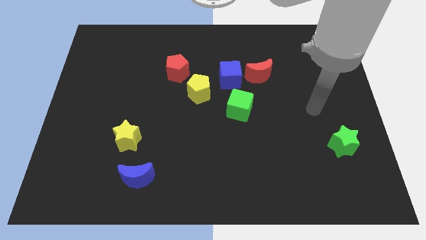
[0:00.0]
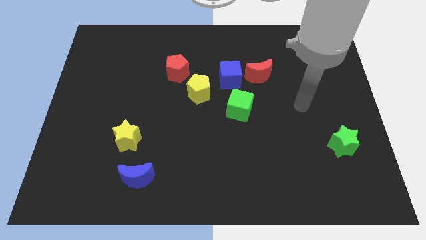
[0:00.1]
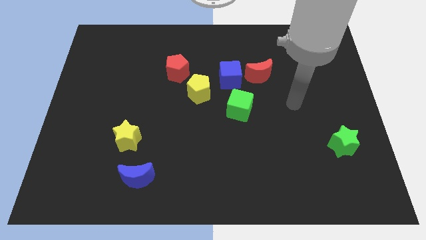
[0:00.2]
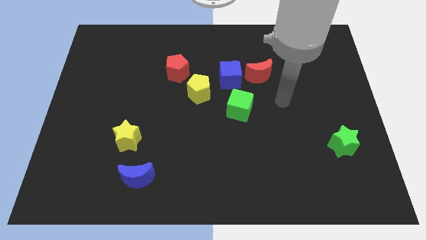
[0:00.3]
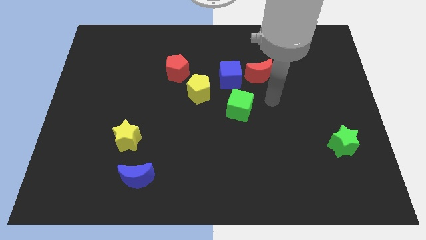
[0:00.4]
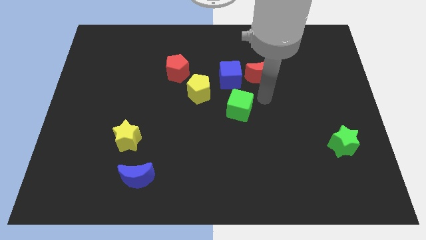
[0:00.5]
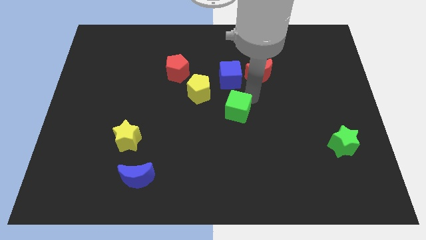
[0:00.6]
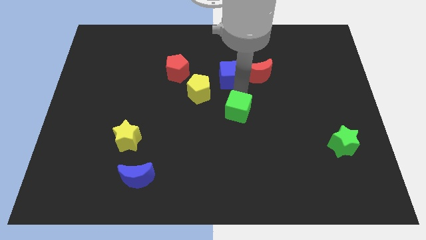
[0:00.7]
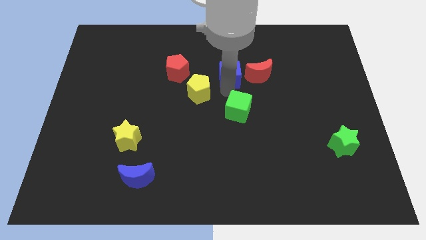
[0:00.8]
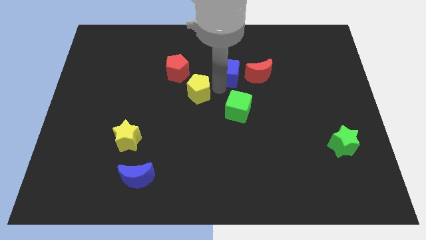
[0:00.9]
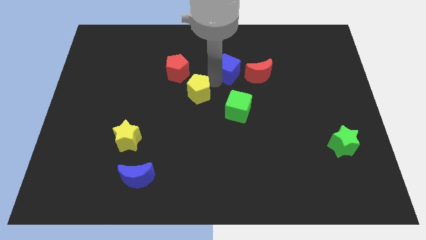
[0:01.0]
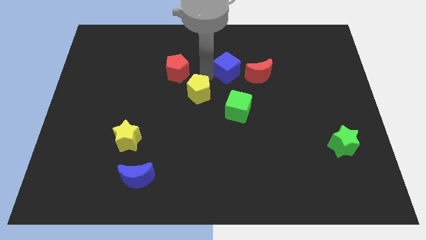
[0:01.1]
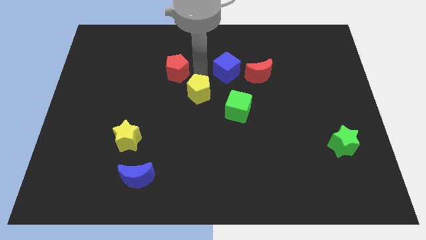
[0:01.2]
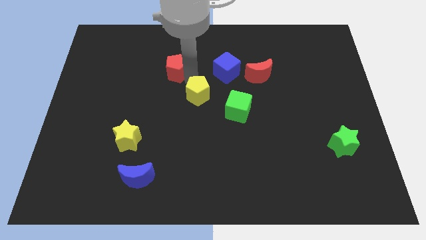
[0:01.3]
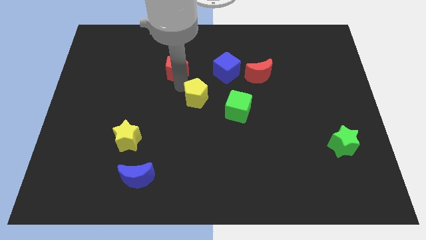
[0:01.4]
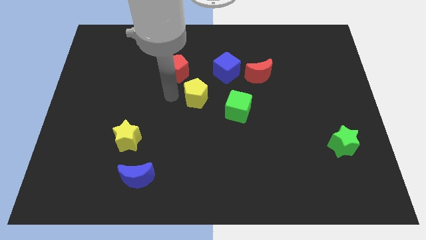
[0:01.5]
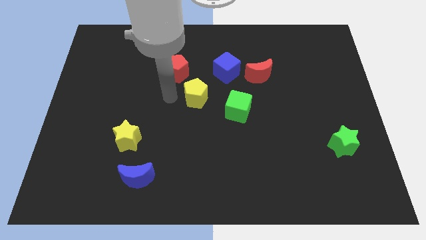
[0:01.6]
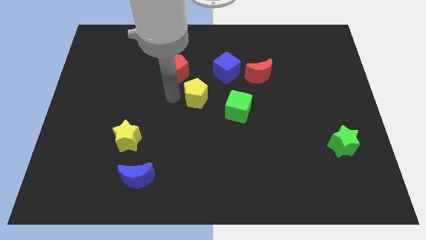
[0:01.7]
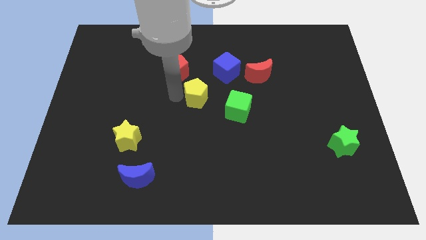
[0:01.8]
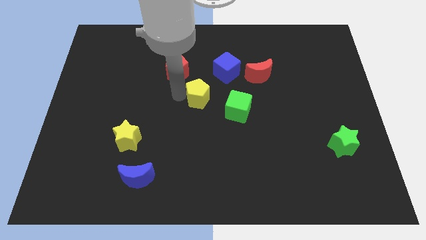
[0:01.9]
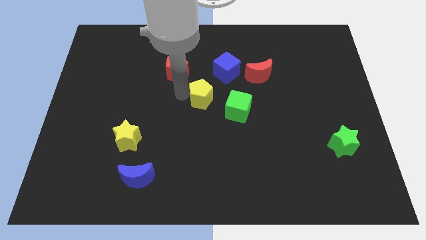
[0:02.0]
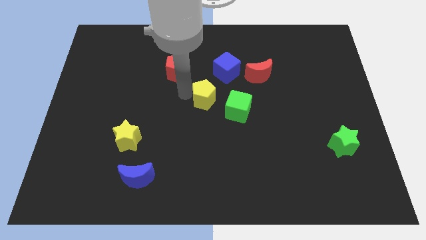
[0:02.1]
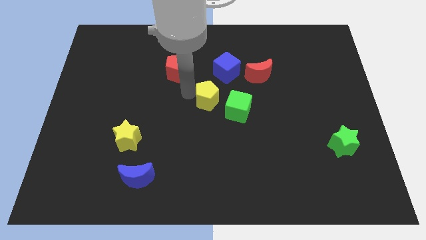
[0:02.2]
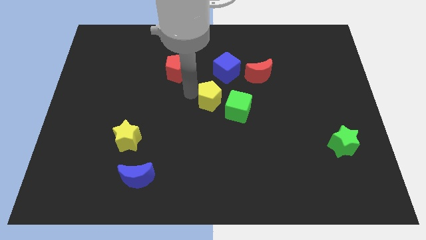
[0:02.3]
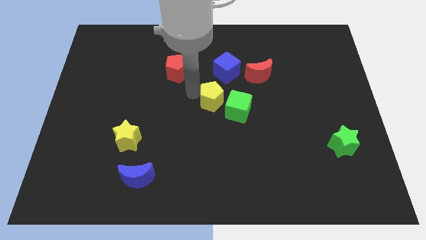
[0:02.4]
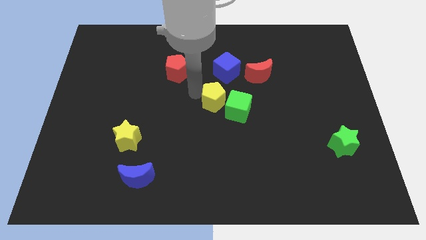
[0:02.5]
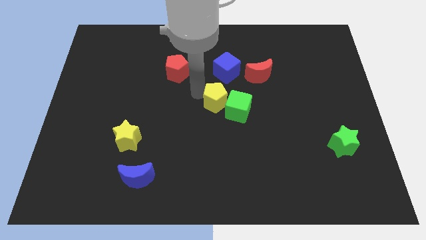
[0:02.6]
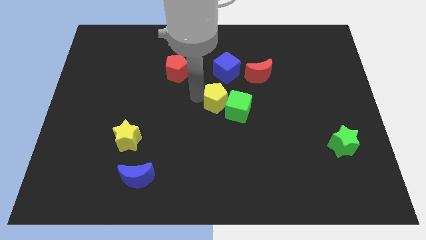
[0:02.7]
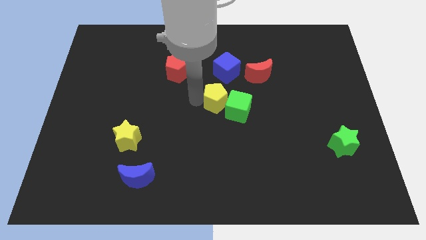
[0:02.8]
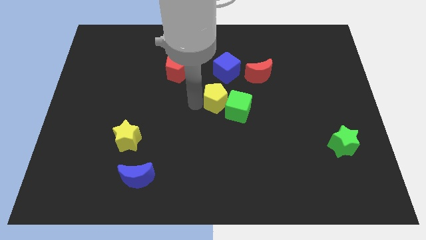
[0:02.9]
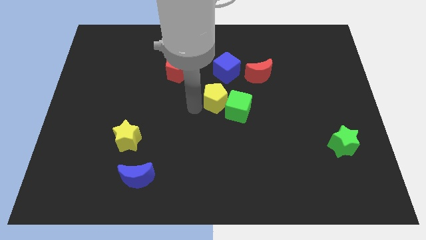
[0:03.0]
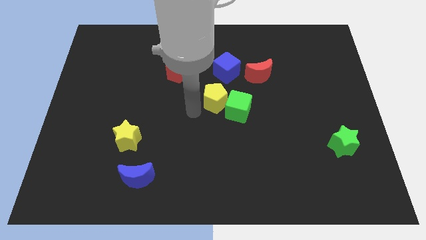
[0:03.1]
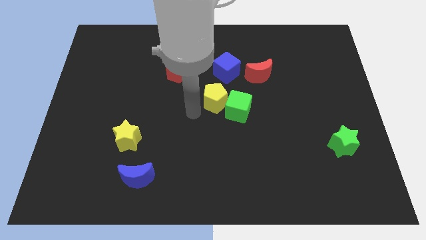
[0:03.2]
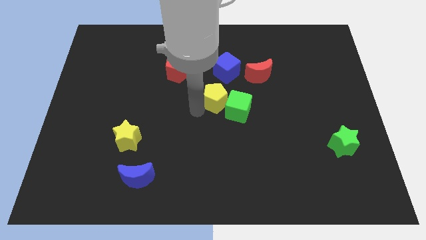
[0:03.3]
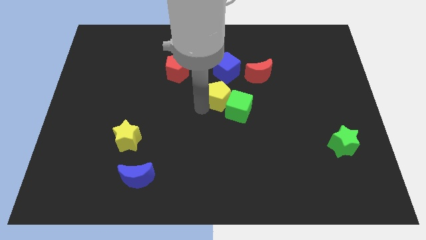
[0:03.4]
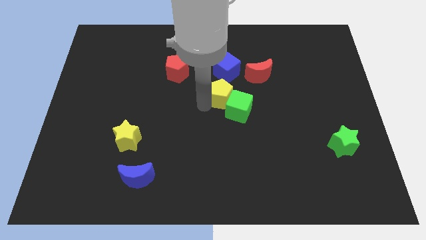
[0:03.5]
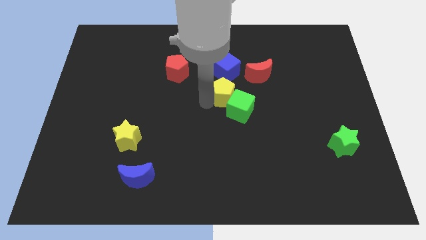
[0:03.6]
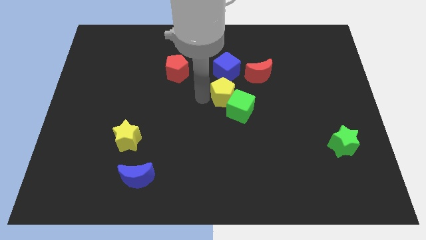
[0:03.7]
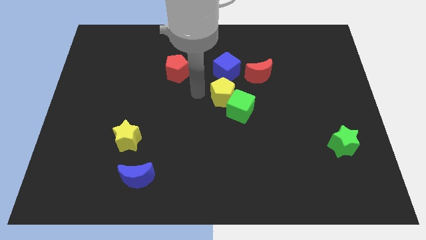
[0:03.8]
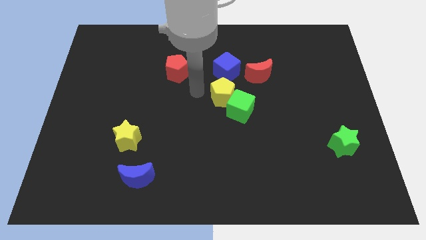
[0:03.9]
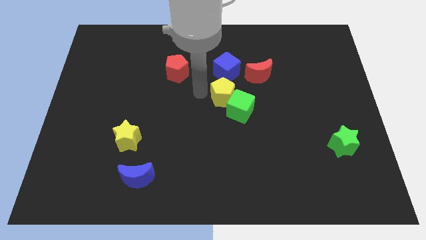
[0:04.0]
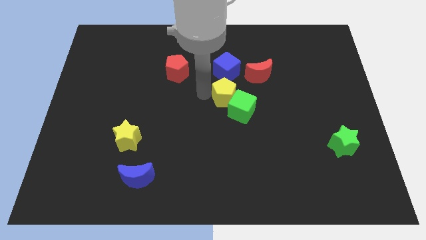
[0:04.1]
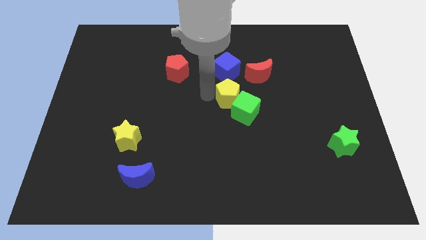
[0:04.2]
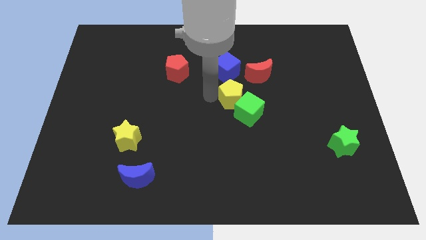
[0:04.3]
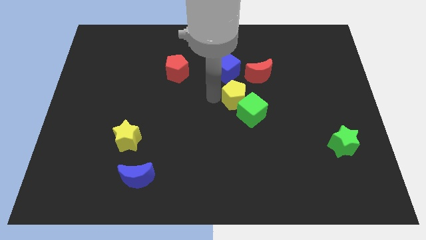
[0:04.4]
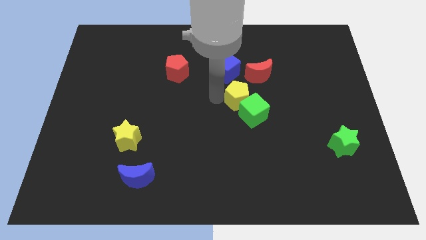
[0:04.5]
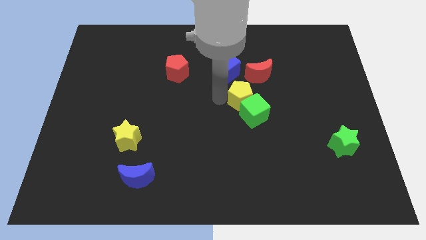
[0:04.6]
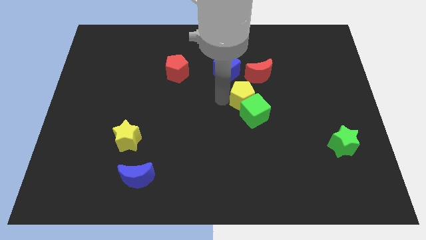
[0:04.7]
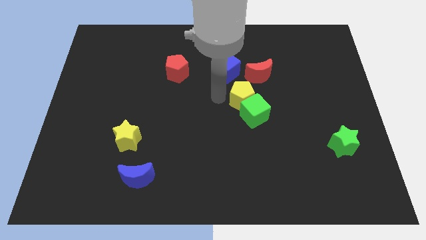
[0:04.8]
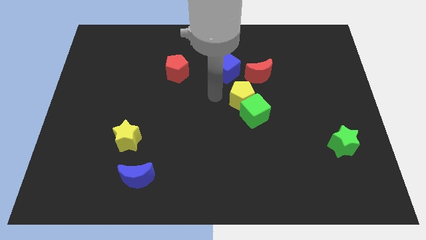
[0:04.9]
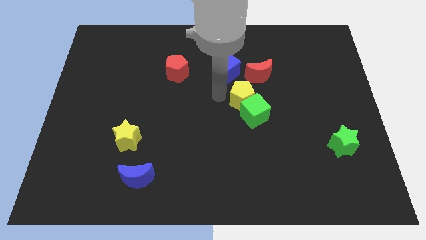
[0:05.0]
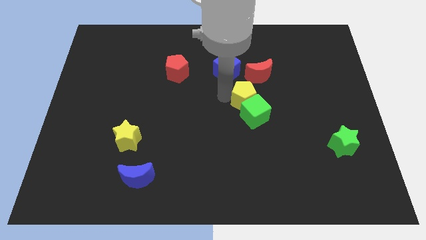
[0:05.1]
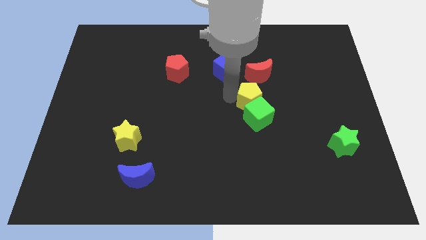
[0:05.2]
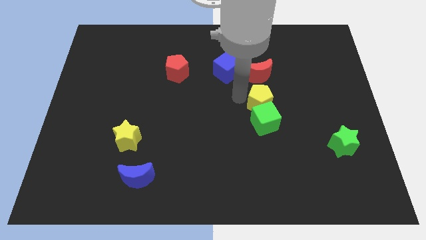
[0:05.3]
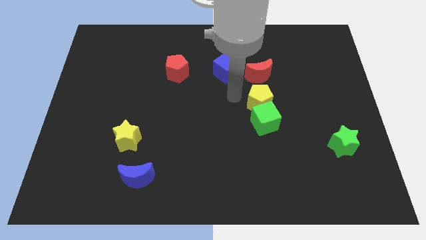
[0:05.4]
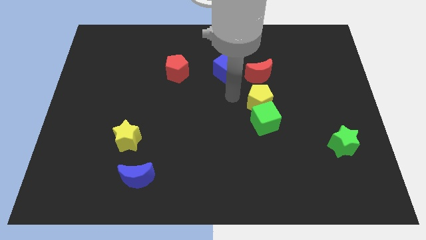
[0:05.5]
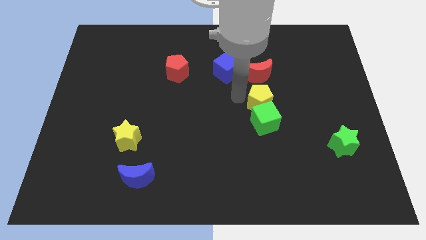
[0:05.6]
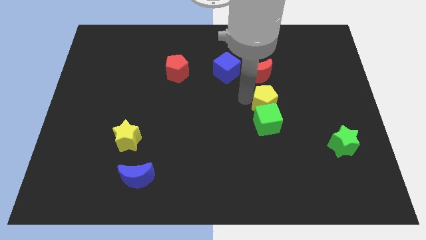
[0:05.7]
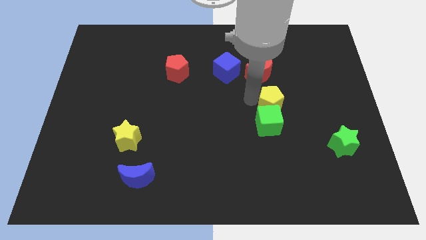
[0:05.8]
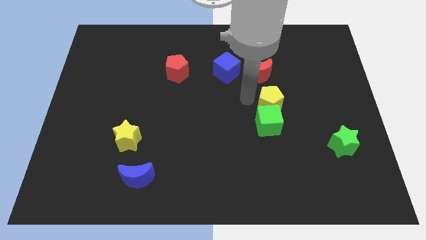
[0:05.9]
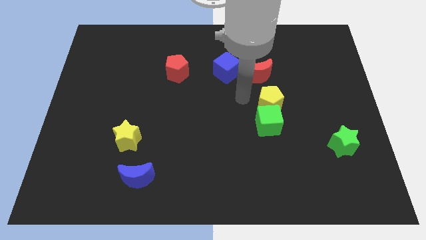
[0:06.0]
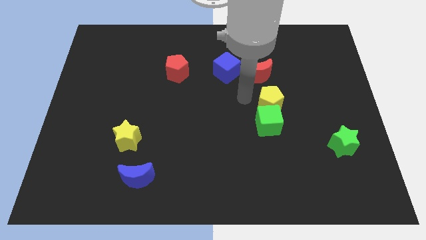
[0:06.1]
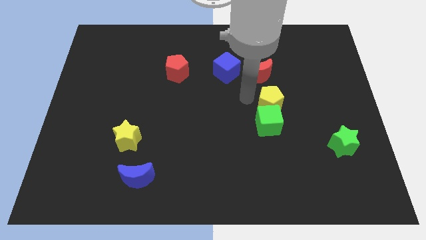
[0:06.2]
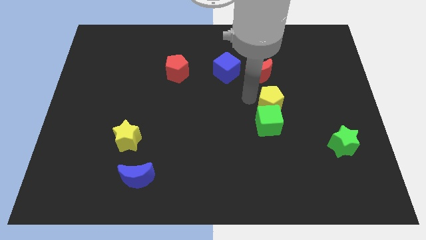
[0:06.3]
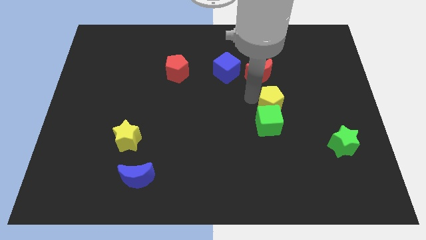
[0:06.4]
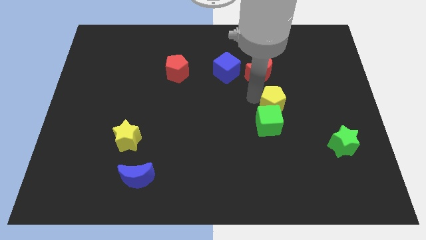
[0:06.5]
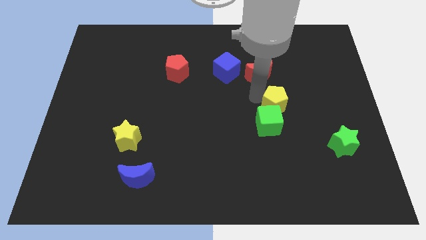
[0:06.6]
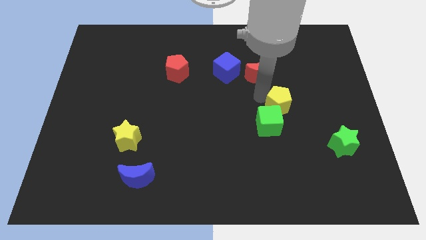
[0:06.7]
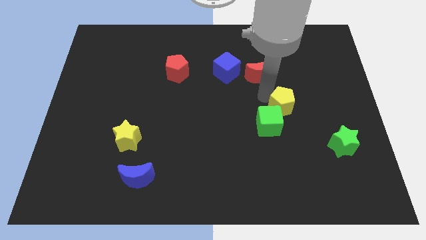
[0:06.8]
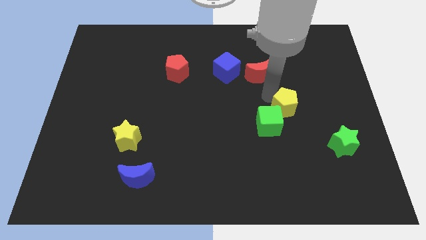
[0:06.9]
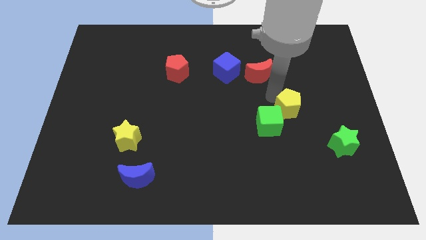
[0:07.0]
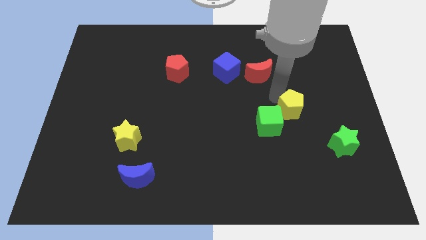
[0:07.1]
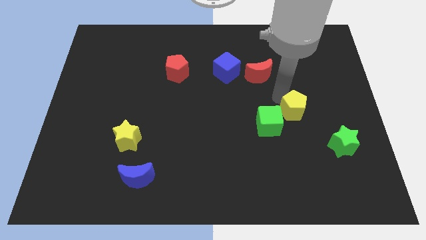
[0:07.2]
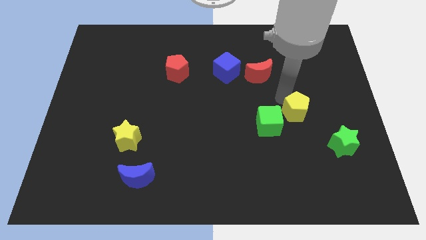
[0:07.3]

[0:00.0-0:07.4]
push the yellow pentagon diagonally up and to the left of the green star
